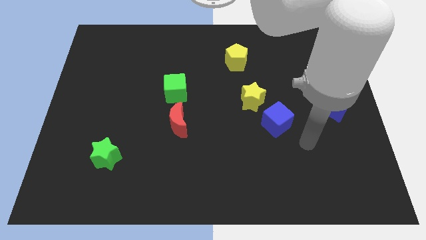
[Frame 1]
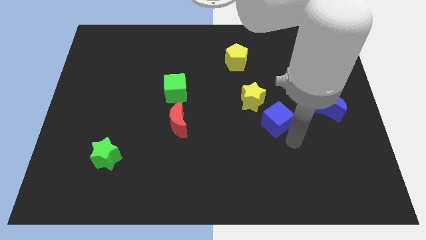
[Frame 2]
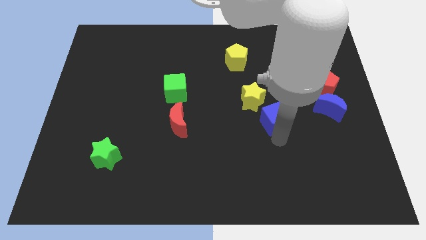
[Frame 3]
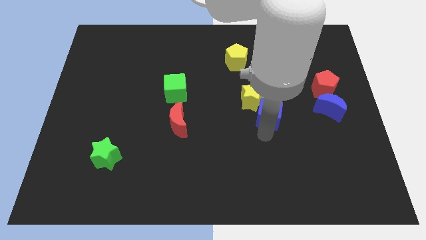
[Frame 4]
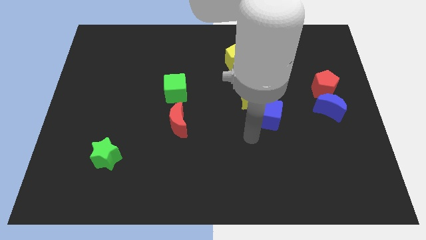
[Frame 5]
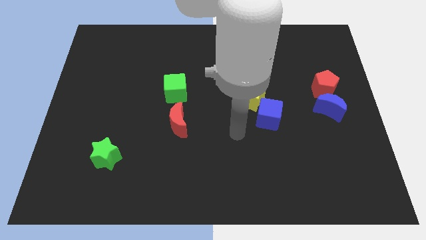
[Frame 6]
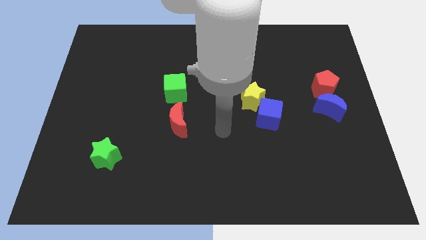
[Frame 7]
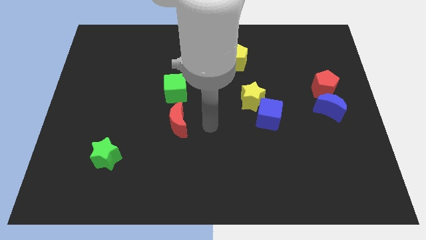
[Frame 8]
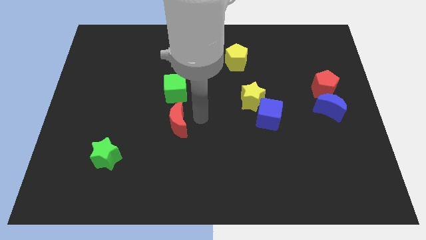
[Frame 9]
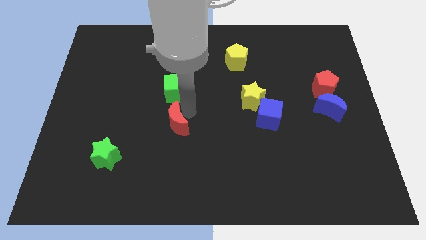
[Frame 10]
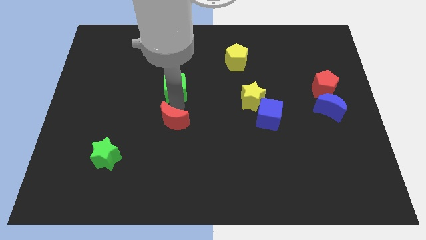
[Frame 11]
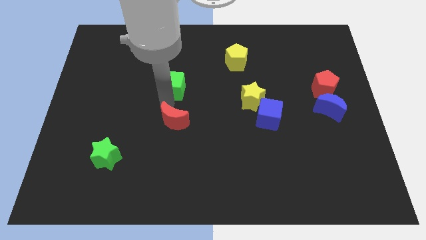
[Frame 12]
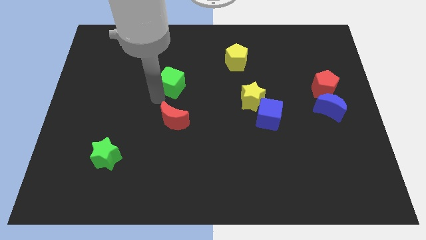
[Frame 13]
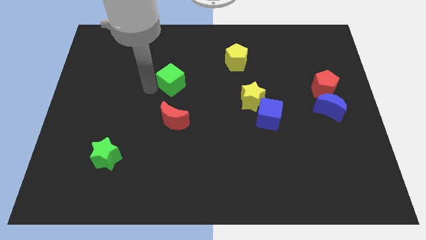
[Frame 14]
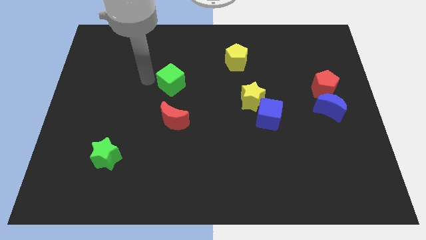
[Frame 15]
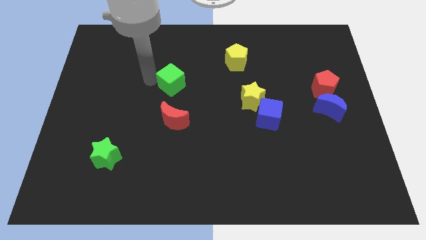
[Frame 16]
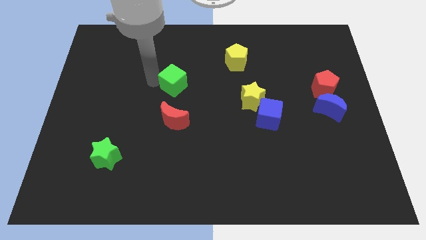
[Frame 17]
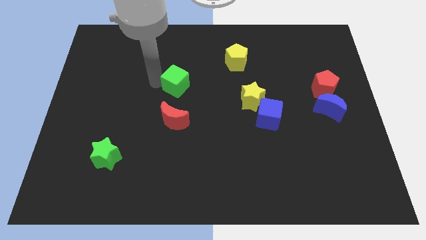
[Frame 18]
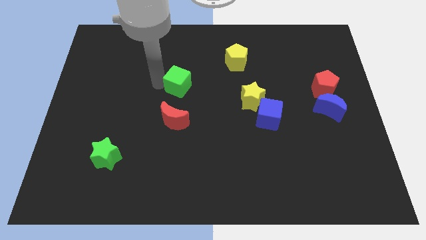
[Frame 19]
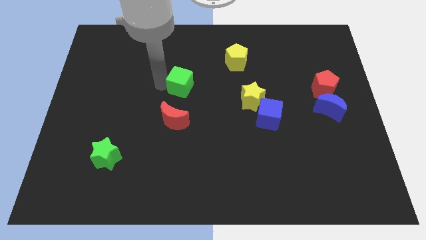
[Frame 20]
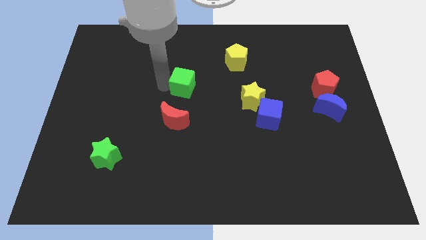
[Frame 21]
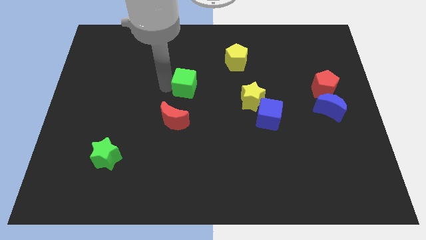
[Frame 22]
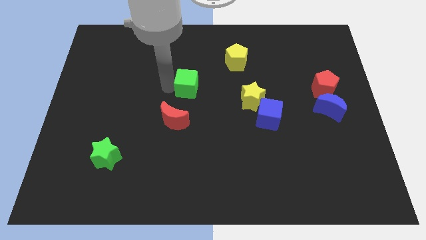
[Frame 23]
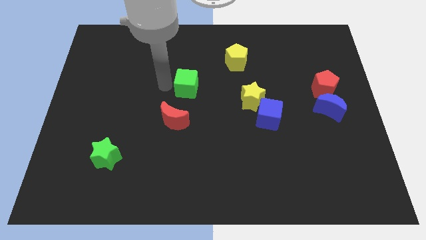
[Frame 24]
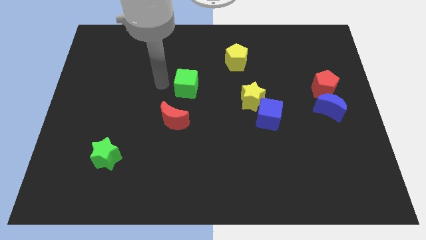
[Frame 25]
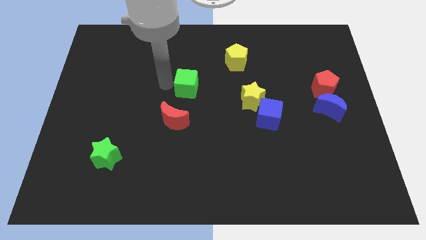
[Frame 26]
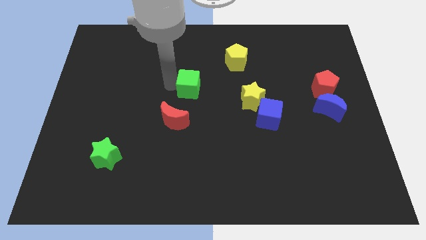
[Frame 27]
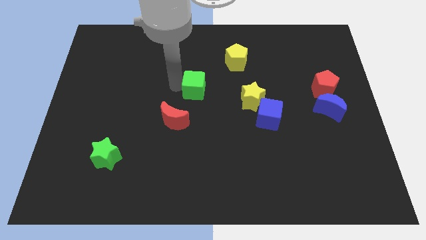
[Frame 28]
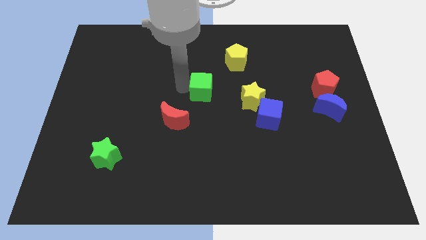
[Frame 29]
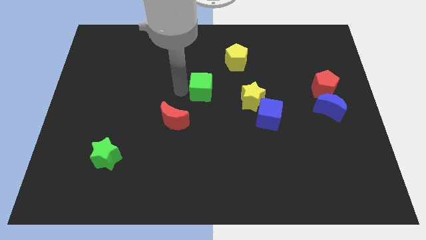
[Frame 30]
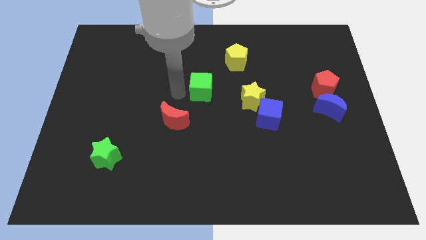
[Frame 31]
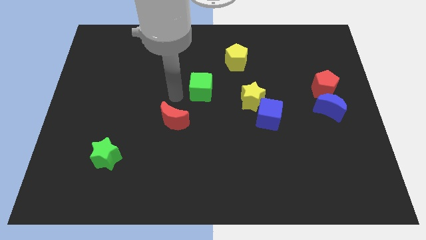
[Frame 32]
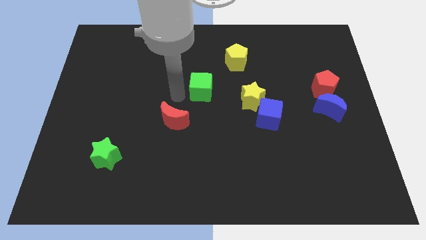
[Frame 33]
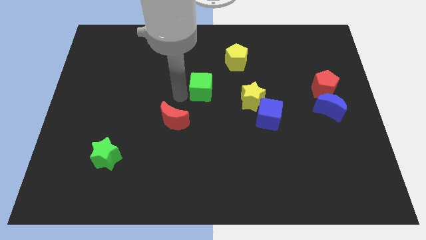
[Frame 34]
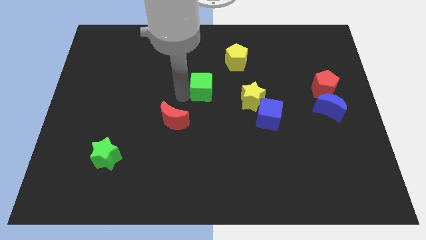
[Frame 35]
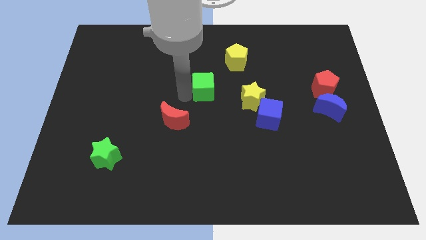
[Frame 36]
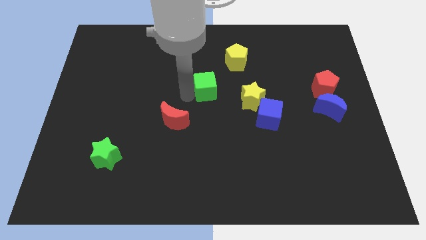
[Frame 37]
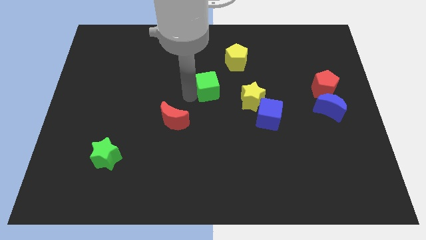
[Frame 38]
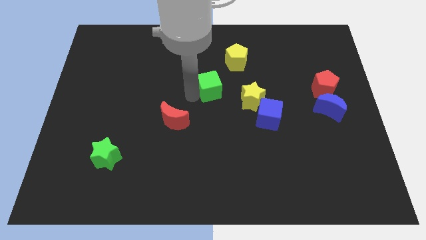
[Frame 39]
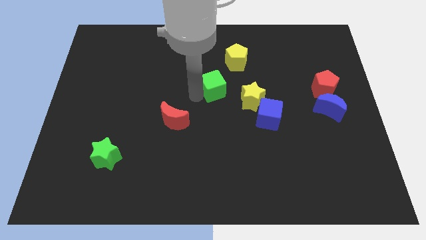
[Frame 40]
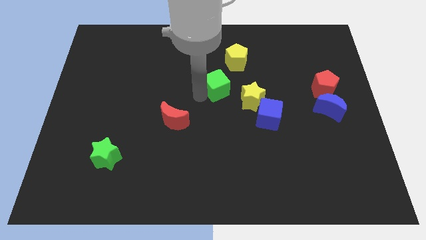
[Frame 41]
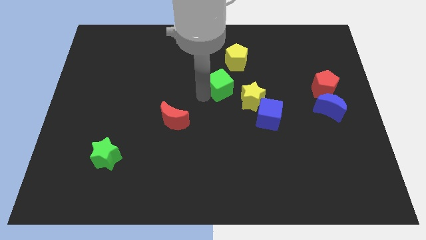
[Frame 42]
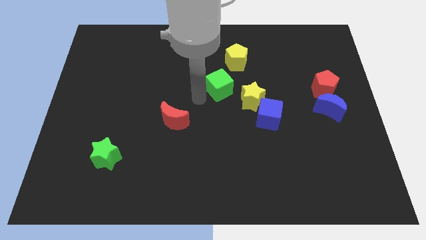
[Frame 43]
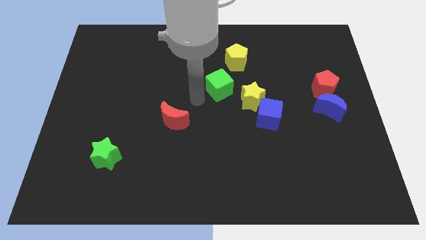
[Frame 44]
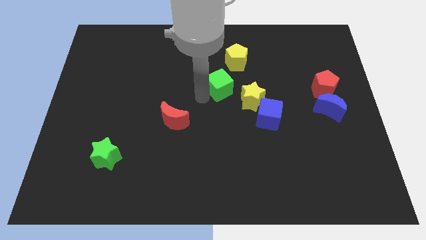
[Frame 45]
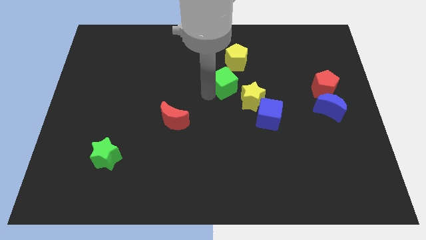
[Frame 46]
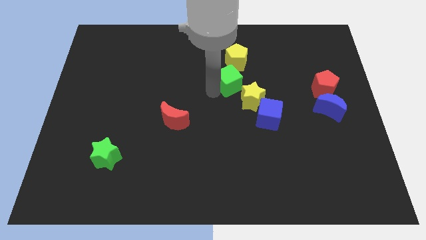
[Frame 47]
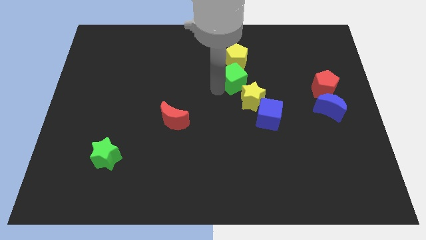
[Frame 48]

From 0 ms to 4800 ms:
move the green cube to the top of the yellow star

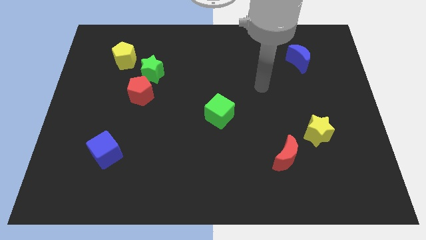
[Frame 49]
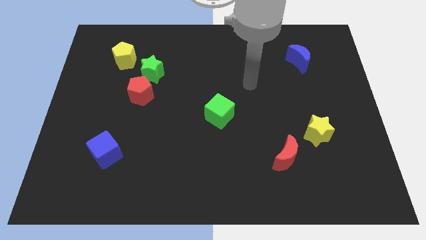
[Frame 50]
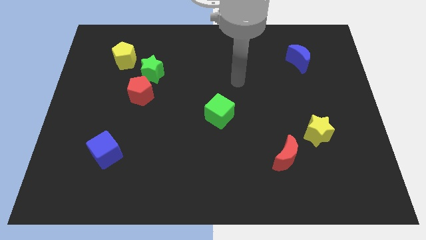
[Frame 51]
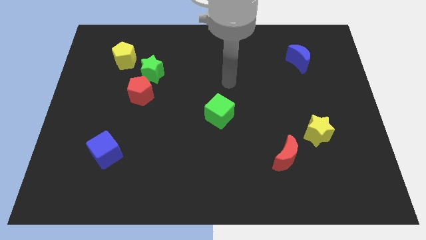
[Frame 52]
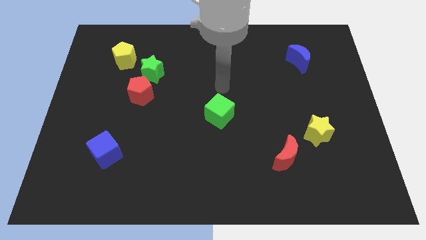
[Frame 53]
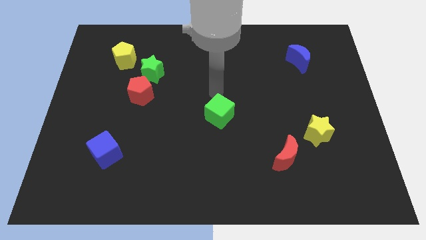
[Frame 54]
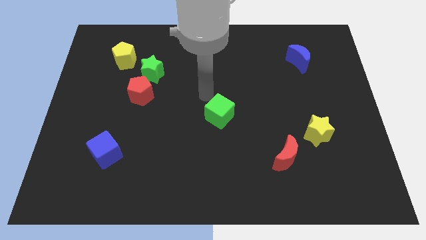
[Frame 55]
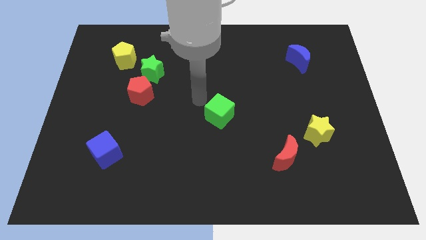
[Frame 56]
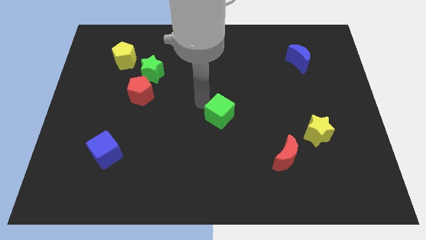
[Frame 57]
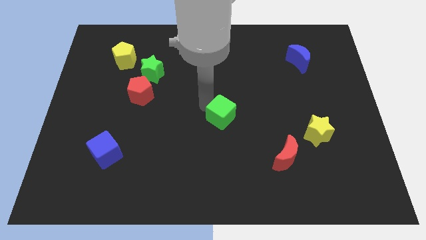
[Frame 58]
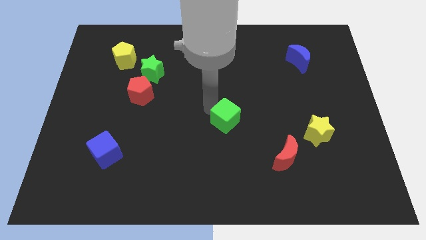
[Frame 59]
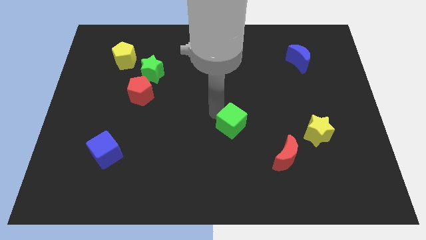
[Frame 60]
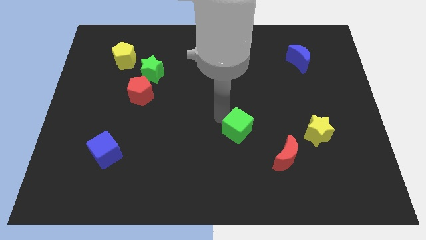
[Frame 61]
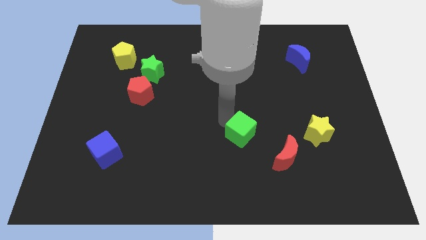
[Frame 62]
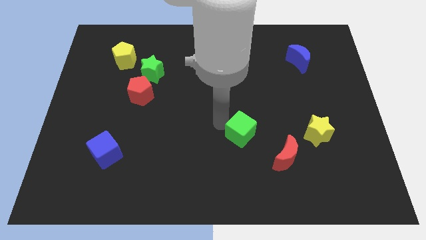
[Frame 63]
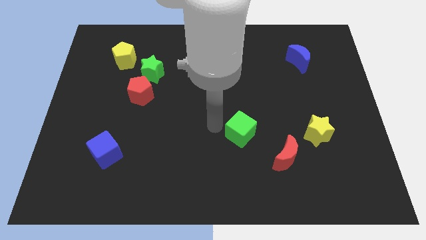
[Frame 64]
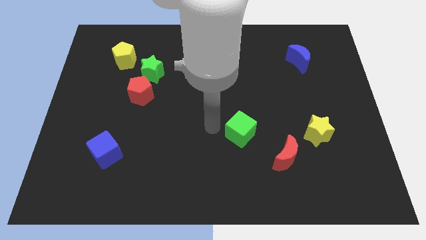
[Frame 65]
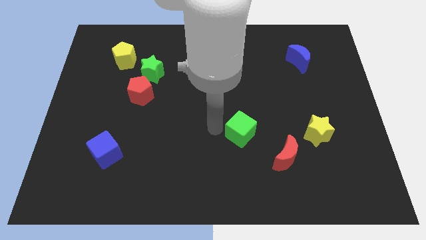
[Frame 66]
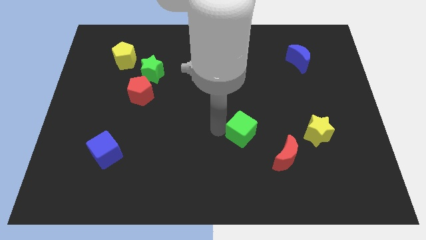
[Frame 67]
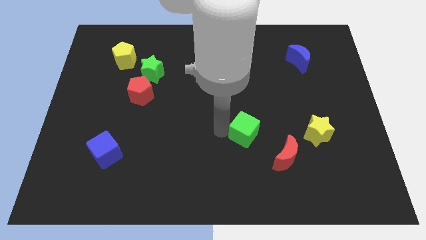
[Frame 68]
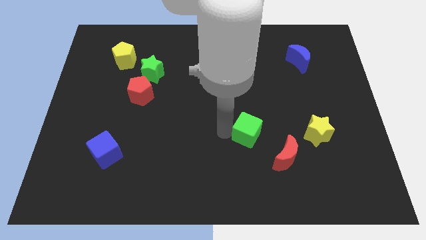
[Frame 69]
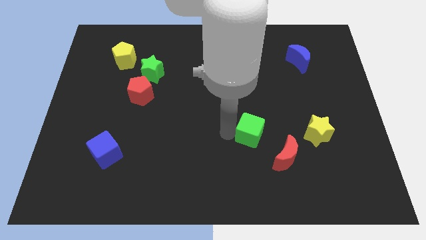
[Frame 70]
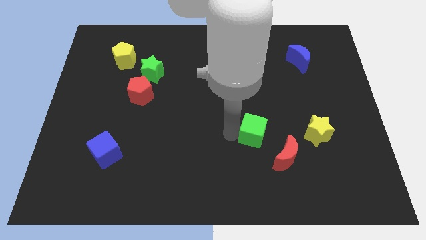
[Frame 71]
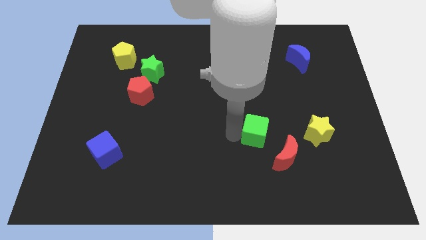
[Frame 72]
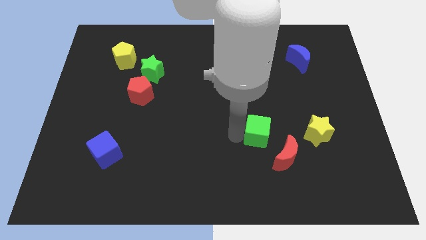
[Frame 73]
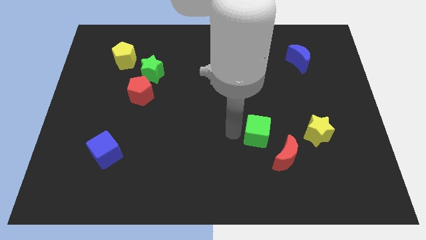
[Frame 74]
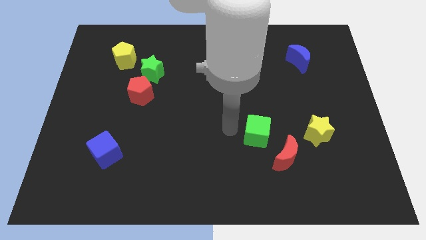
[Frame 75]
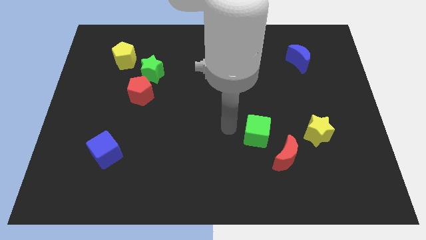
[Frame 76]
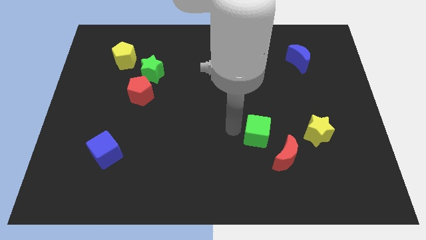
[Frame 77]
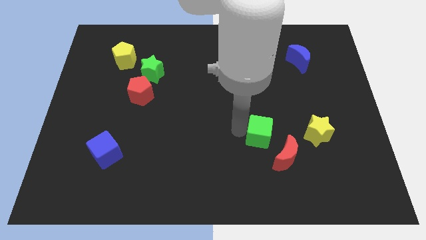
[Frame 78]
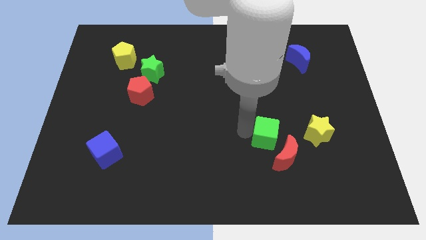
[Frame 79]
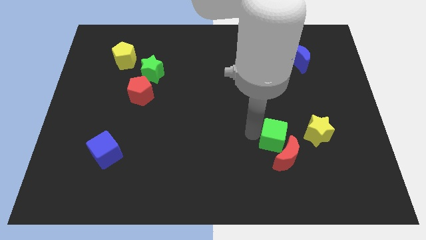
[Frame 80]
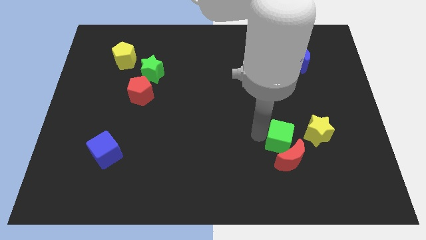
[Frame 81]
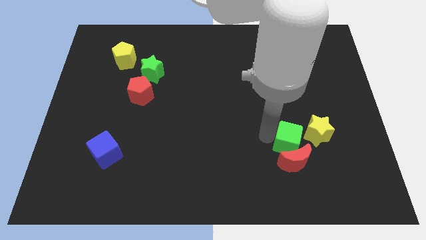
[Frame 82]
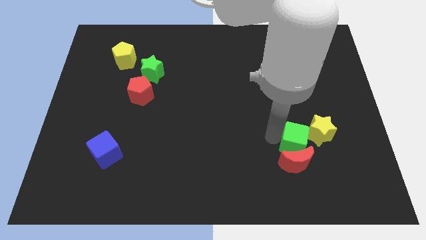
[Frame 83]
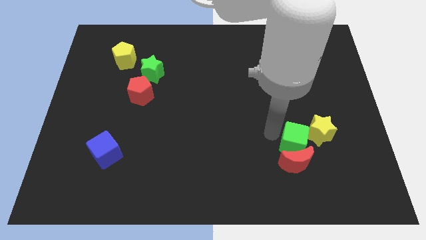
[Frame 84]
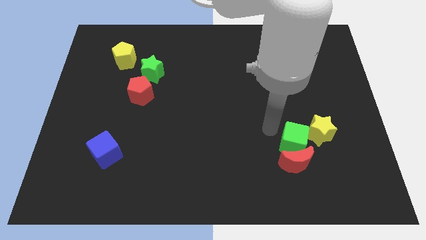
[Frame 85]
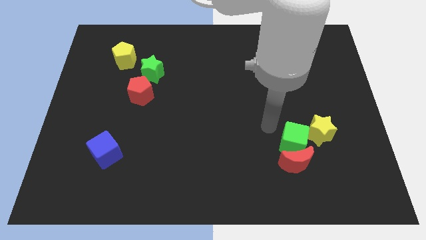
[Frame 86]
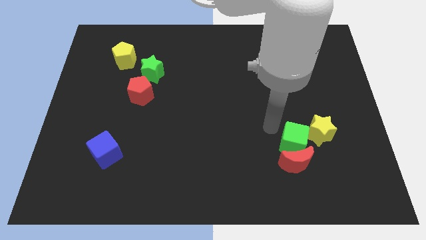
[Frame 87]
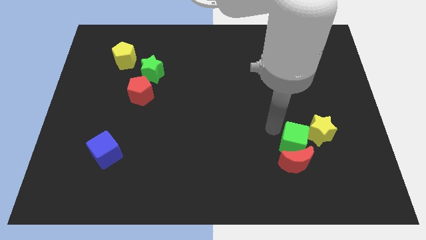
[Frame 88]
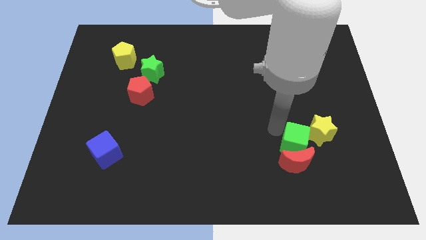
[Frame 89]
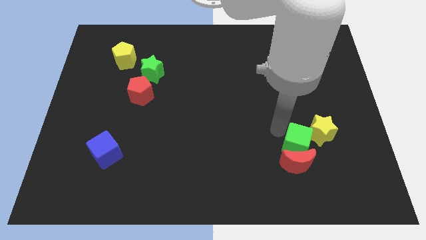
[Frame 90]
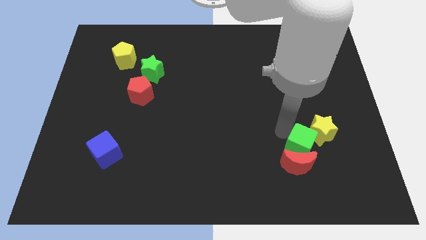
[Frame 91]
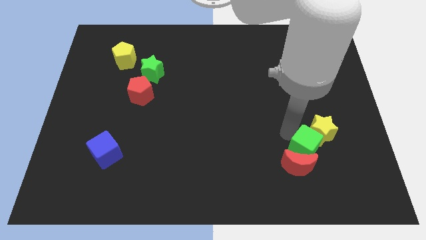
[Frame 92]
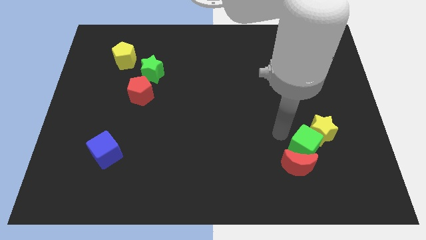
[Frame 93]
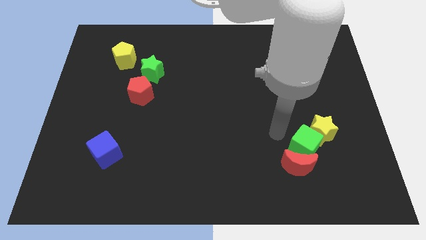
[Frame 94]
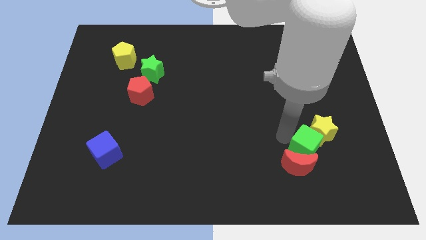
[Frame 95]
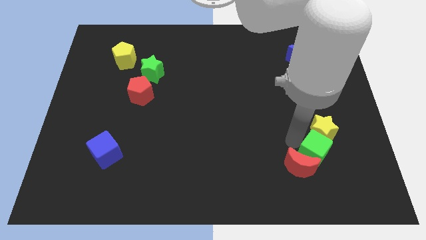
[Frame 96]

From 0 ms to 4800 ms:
slide the green cube to the right side of the red moon
